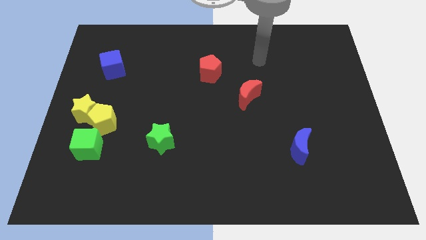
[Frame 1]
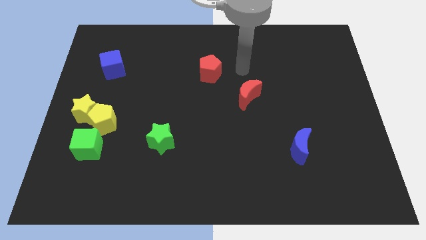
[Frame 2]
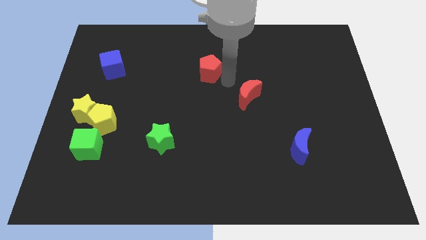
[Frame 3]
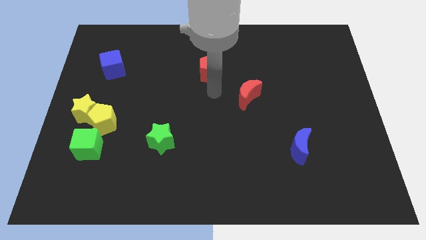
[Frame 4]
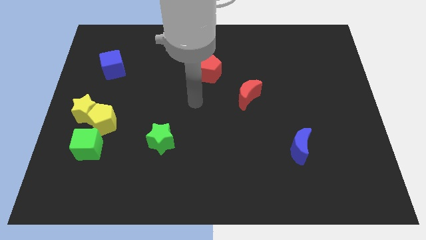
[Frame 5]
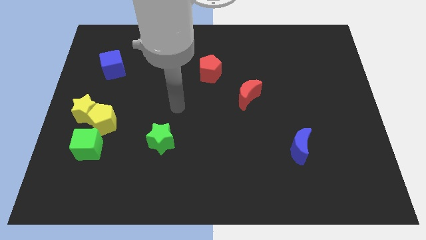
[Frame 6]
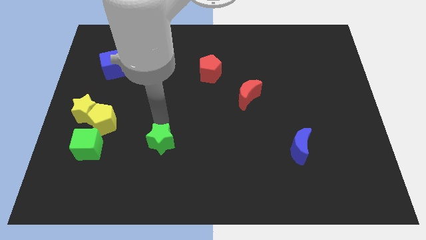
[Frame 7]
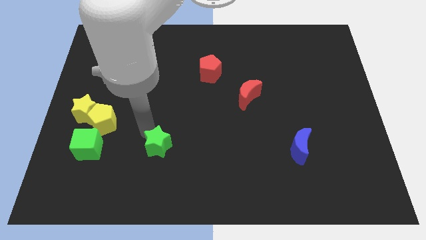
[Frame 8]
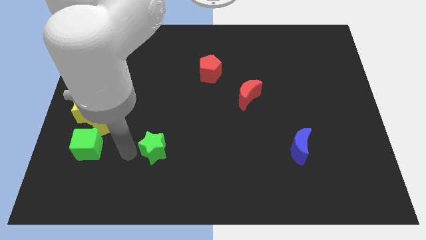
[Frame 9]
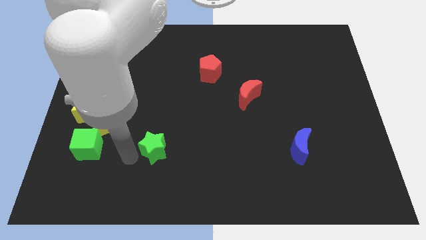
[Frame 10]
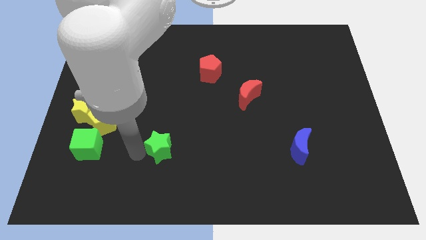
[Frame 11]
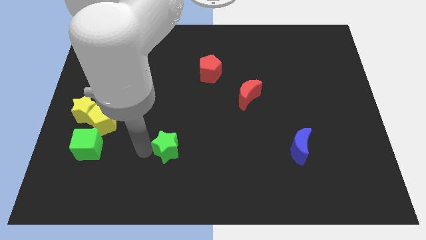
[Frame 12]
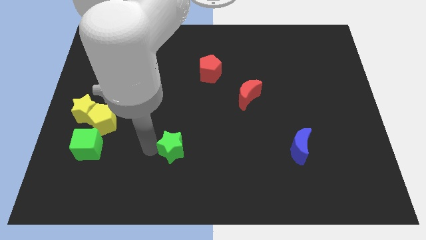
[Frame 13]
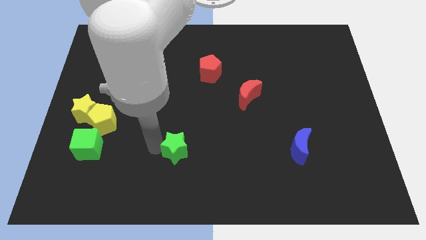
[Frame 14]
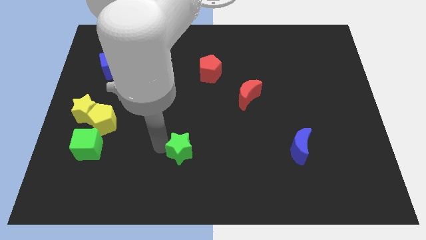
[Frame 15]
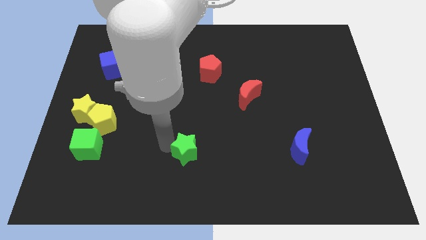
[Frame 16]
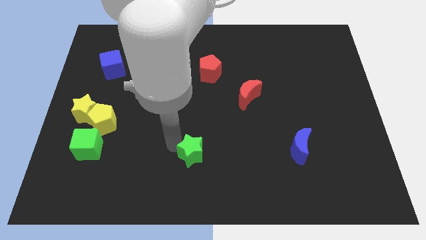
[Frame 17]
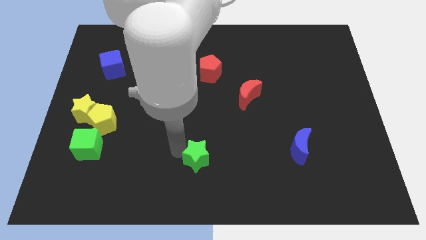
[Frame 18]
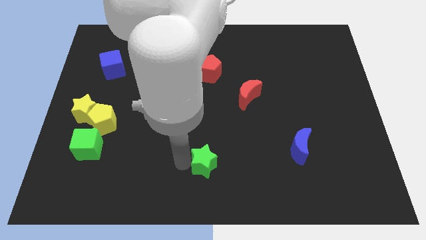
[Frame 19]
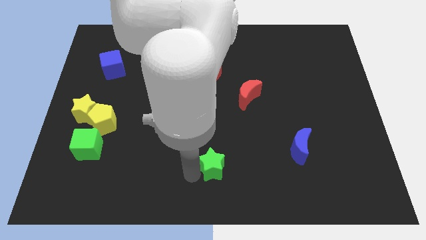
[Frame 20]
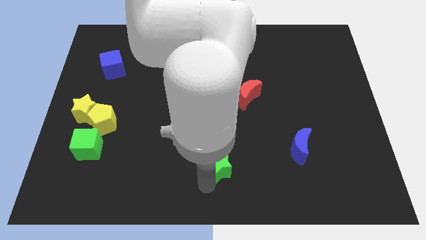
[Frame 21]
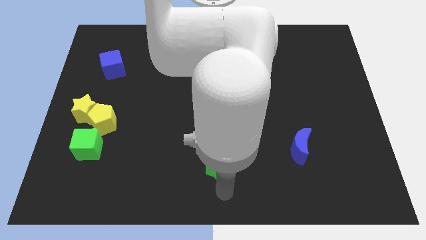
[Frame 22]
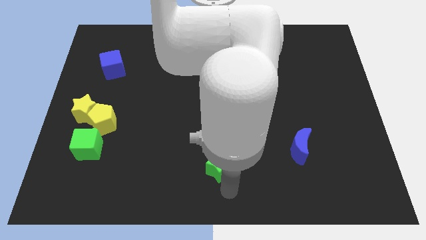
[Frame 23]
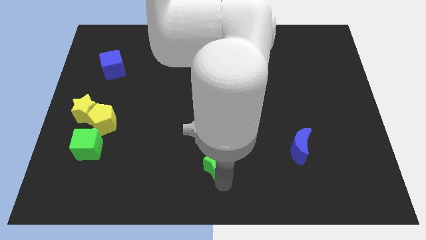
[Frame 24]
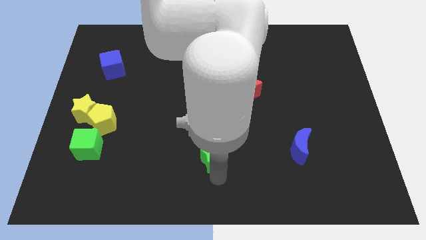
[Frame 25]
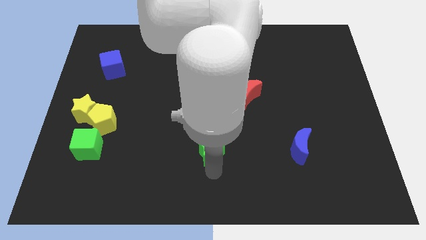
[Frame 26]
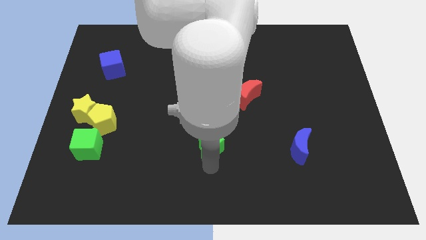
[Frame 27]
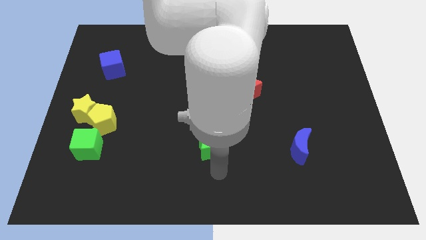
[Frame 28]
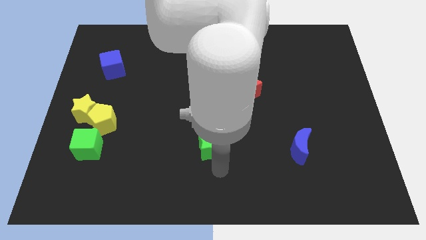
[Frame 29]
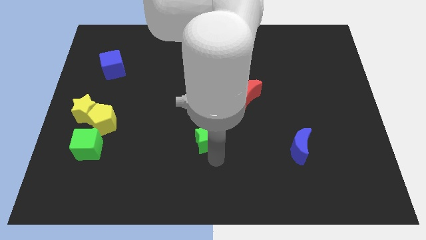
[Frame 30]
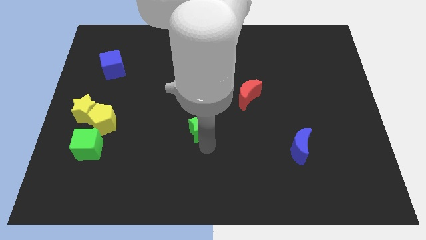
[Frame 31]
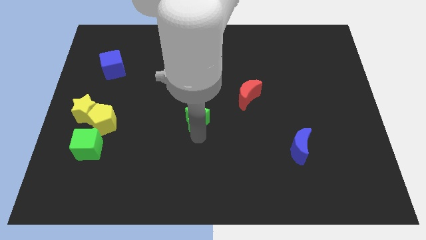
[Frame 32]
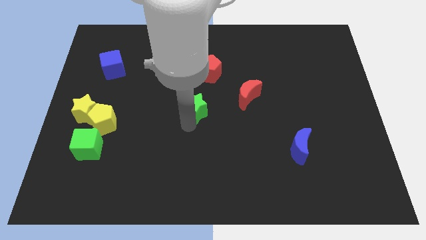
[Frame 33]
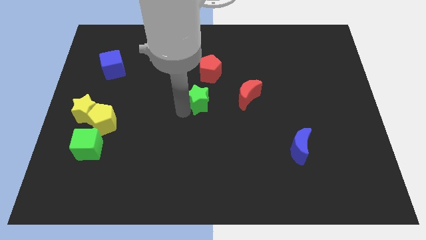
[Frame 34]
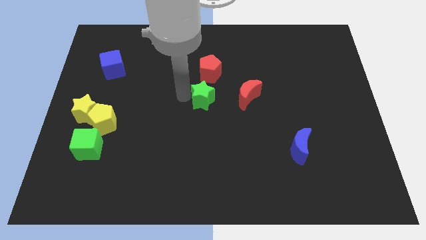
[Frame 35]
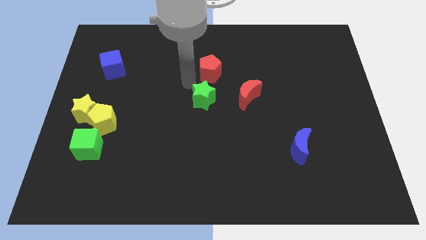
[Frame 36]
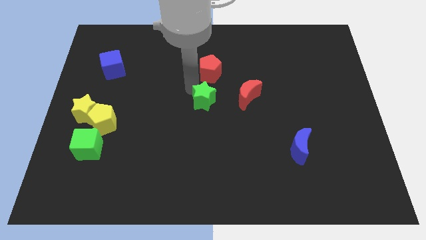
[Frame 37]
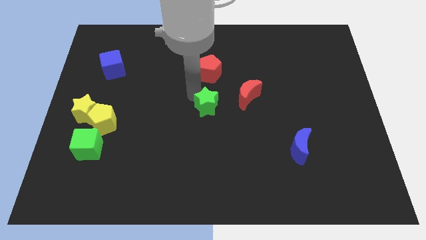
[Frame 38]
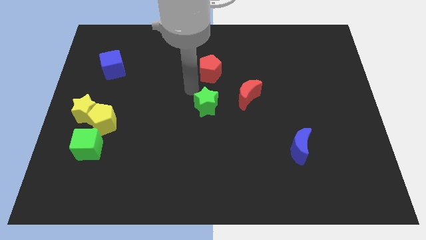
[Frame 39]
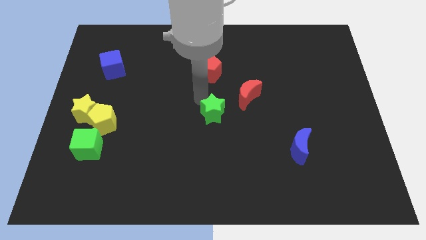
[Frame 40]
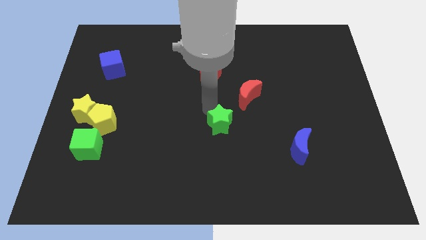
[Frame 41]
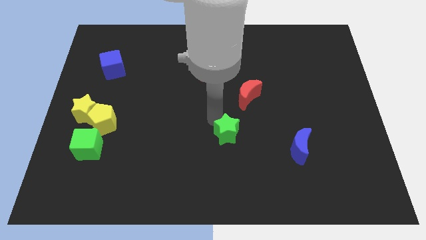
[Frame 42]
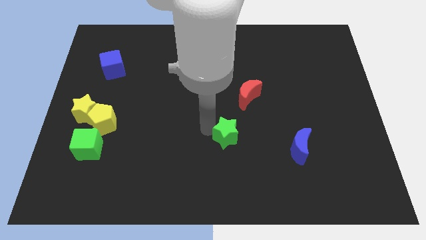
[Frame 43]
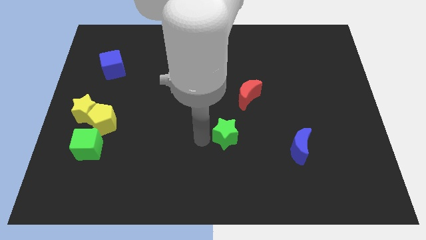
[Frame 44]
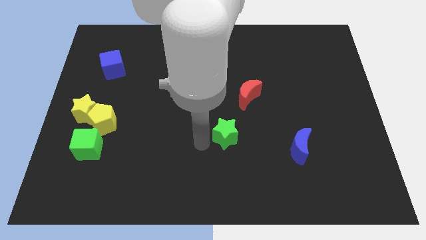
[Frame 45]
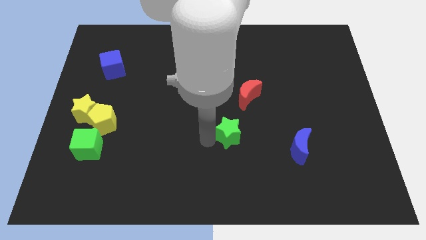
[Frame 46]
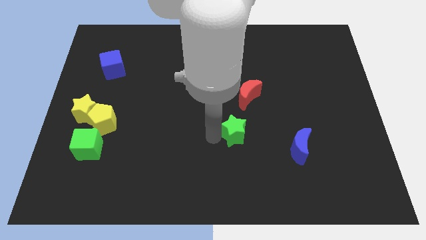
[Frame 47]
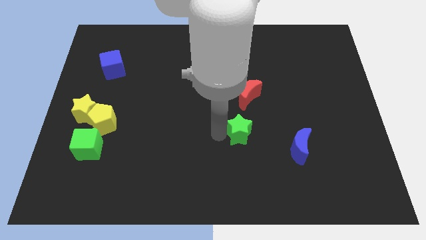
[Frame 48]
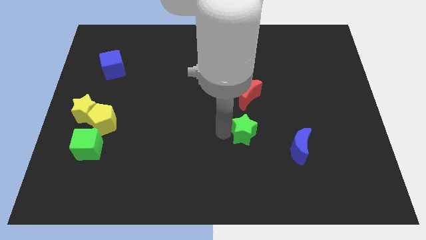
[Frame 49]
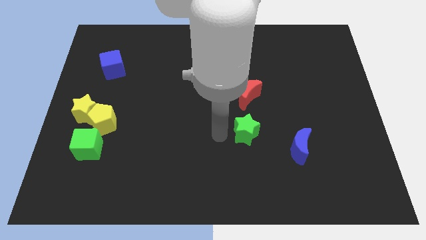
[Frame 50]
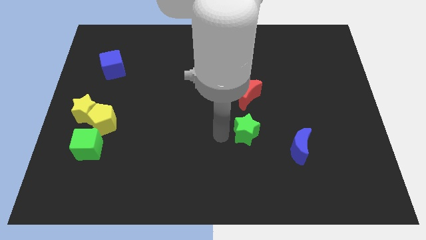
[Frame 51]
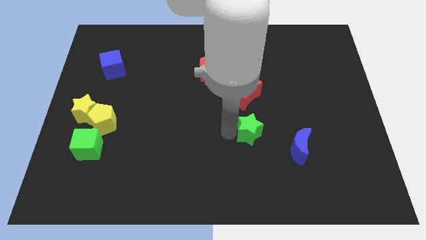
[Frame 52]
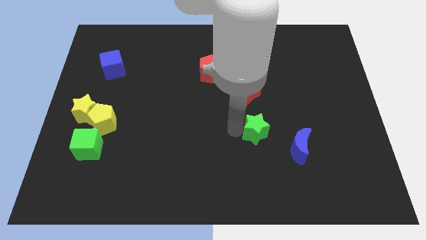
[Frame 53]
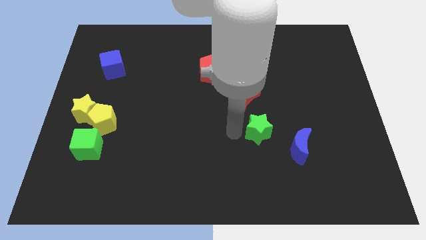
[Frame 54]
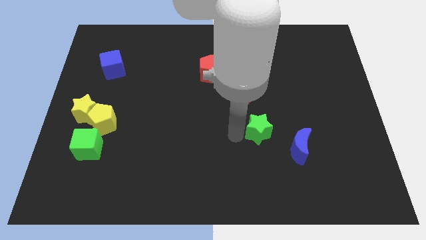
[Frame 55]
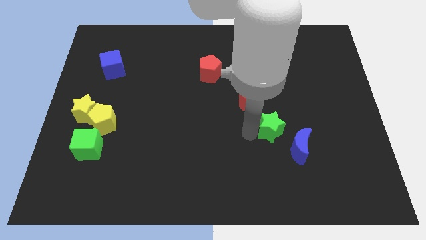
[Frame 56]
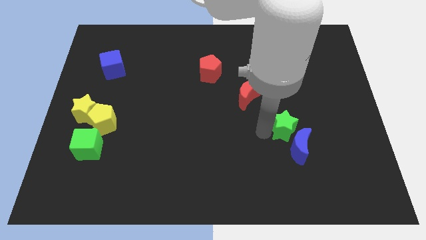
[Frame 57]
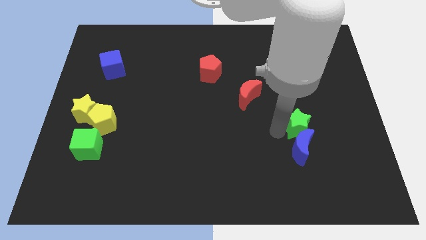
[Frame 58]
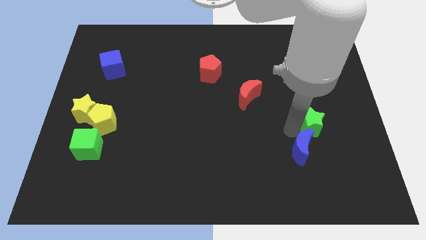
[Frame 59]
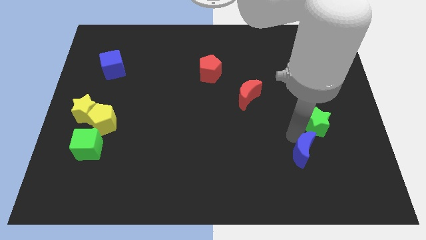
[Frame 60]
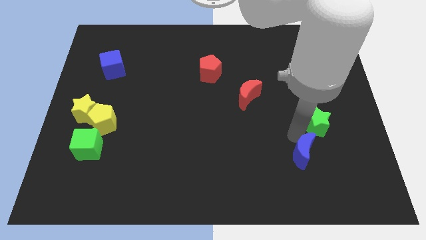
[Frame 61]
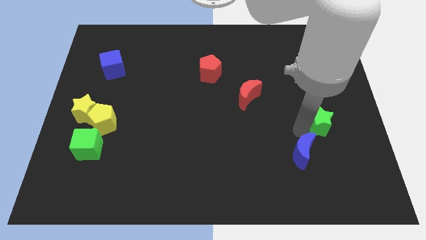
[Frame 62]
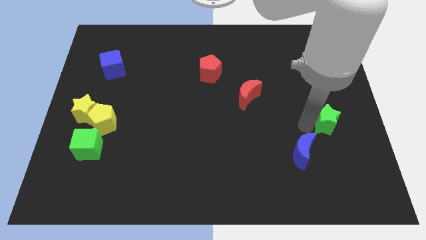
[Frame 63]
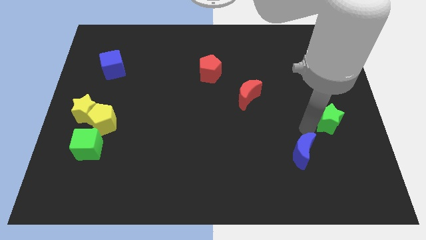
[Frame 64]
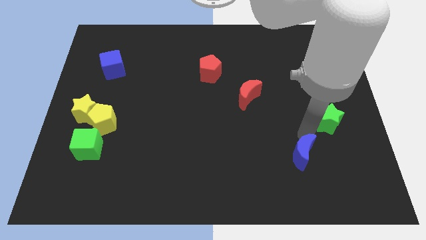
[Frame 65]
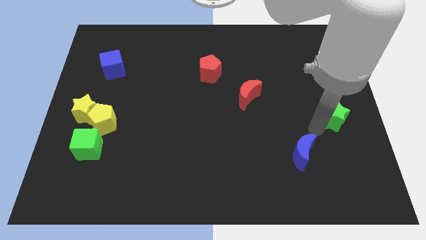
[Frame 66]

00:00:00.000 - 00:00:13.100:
put the green star to the right side of the board
